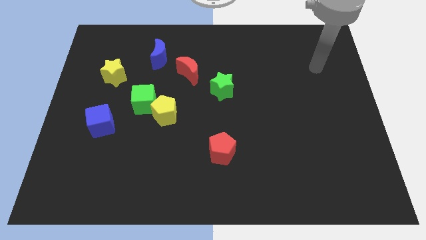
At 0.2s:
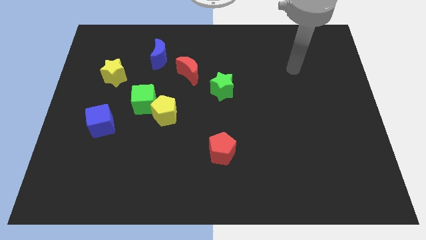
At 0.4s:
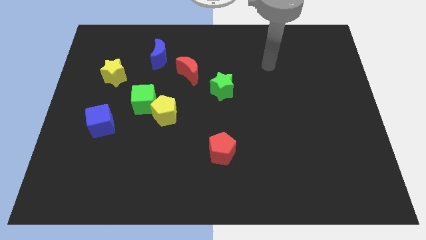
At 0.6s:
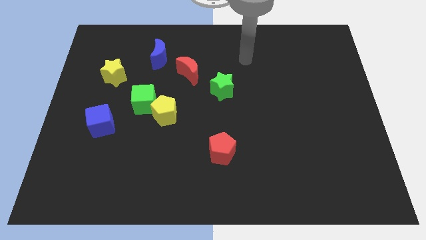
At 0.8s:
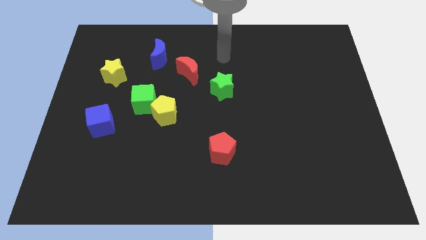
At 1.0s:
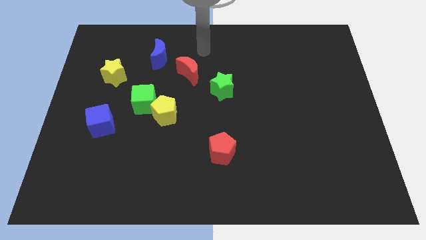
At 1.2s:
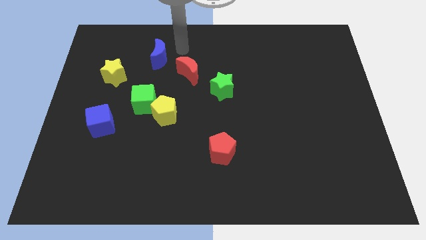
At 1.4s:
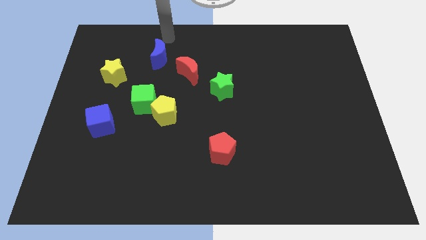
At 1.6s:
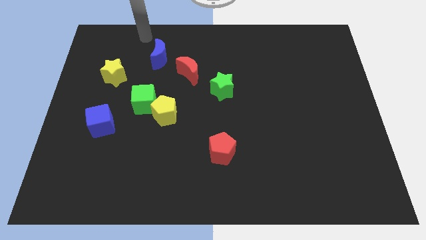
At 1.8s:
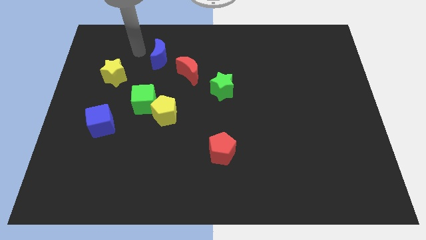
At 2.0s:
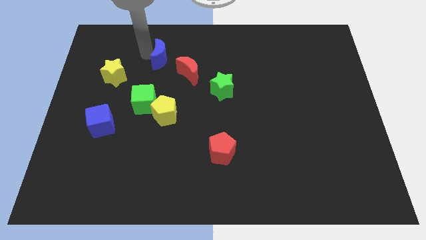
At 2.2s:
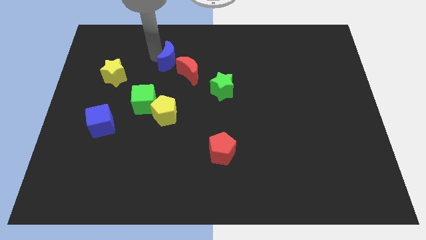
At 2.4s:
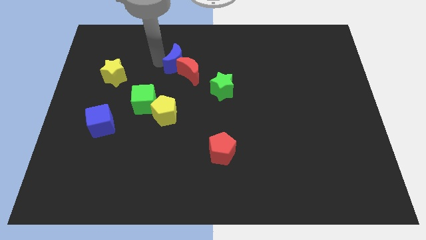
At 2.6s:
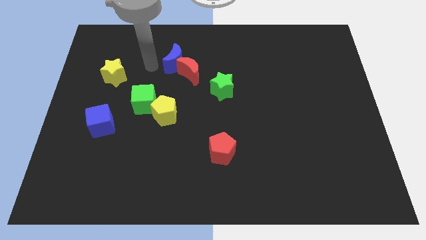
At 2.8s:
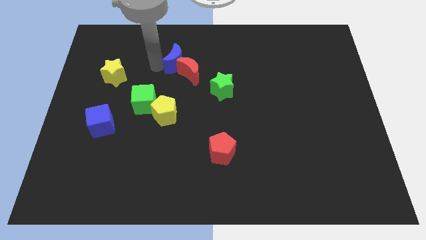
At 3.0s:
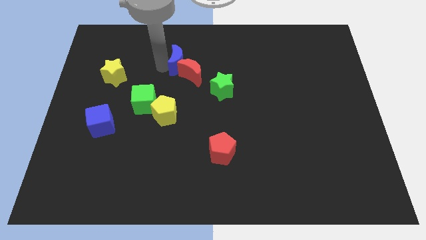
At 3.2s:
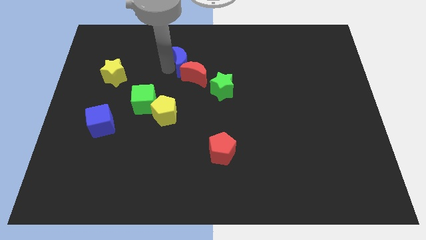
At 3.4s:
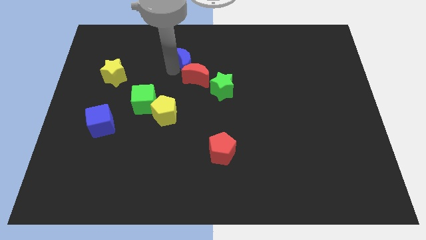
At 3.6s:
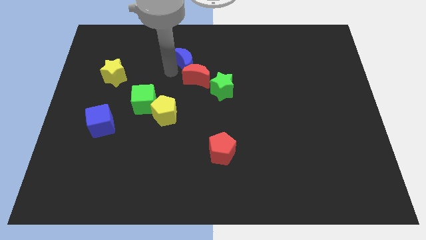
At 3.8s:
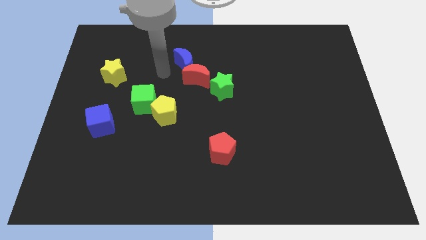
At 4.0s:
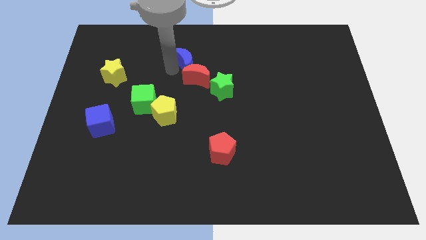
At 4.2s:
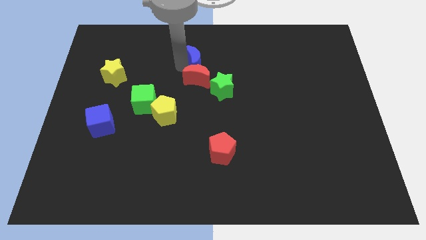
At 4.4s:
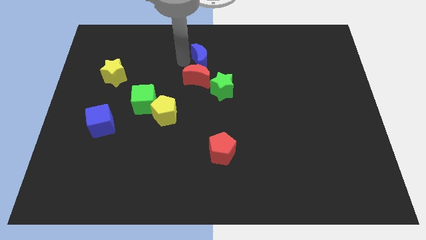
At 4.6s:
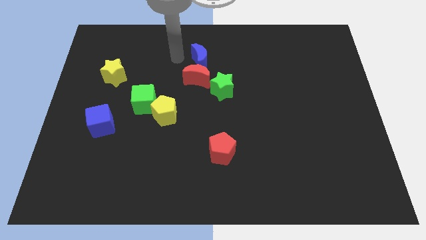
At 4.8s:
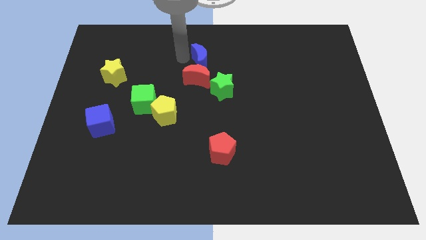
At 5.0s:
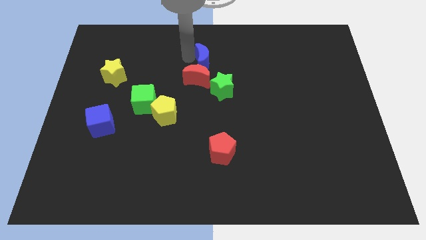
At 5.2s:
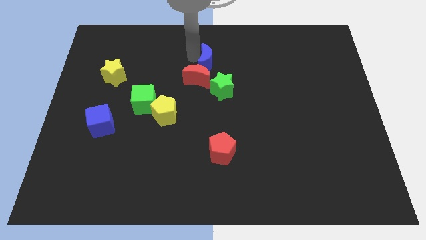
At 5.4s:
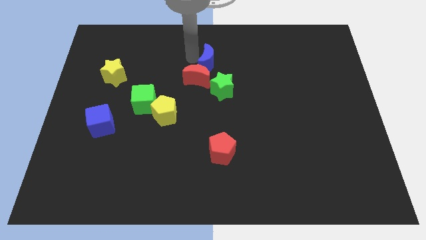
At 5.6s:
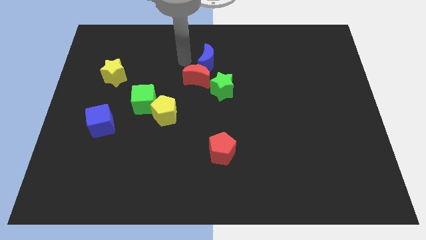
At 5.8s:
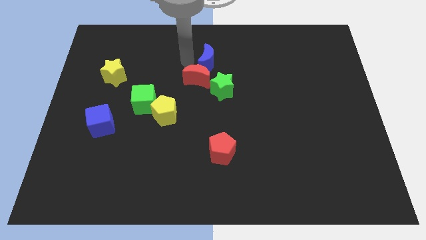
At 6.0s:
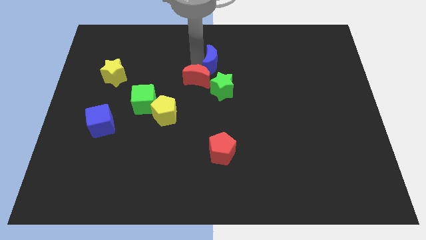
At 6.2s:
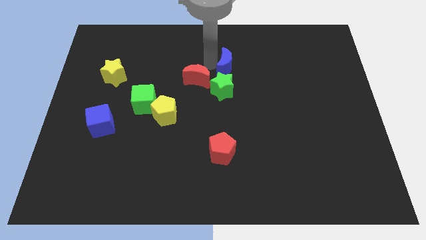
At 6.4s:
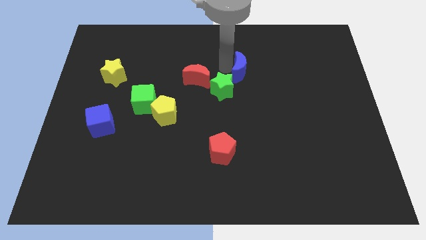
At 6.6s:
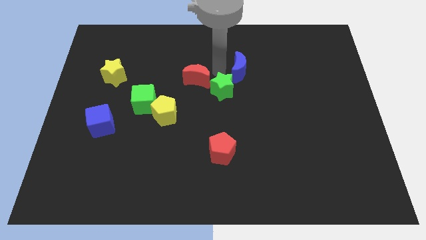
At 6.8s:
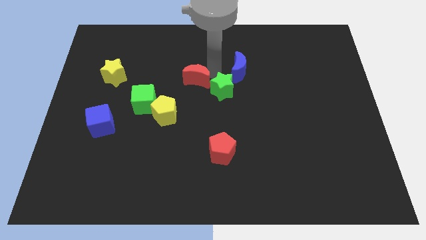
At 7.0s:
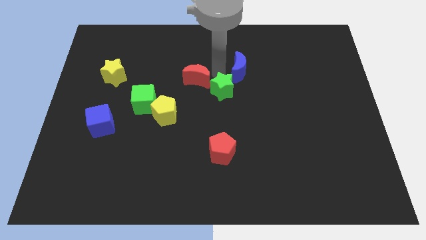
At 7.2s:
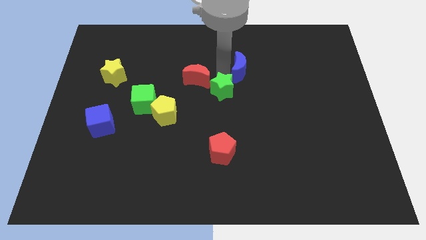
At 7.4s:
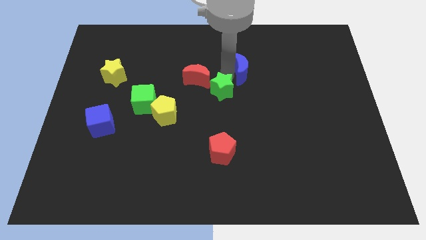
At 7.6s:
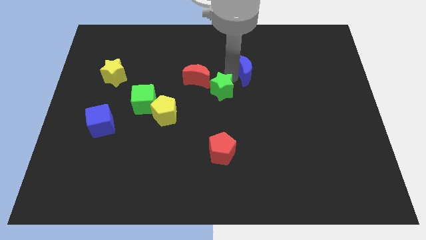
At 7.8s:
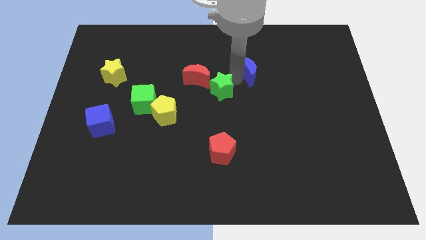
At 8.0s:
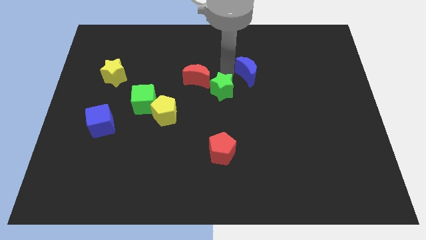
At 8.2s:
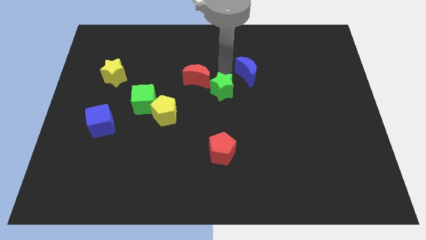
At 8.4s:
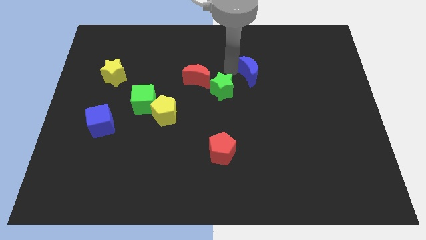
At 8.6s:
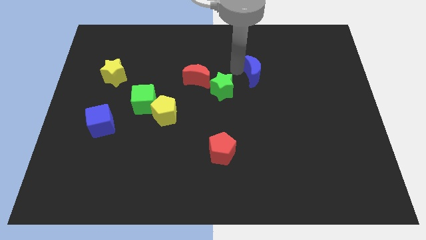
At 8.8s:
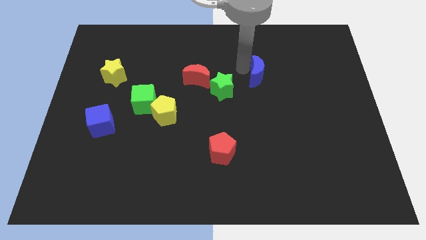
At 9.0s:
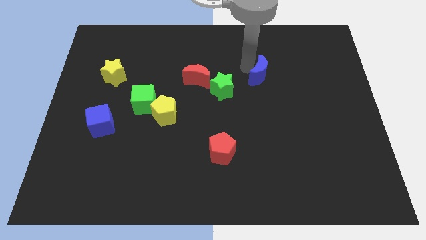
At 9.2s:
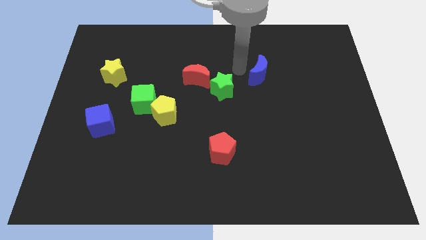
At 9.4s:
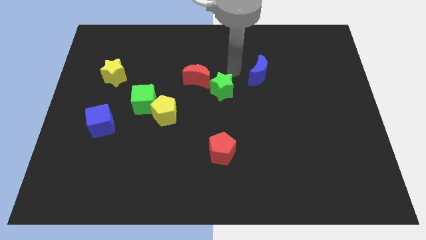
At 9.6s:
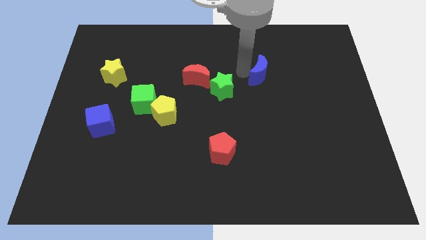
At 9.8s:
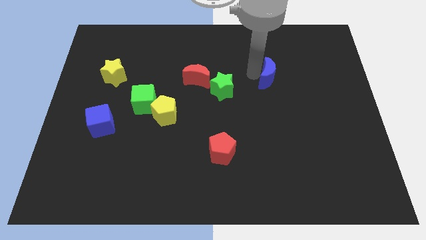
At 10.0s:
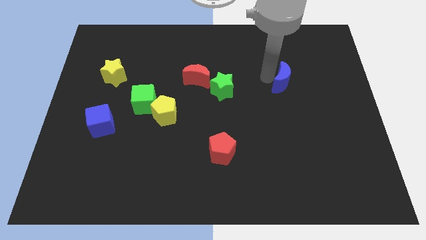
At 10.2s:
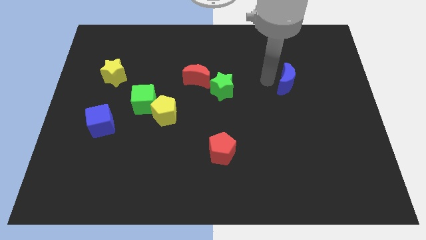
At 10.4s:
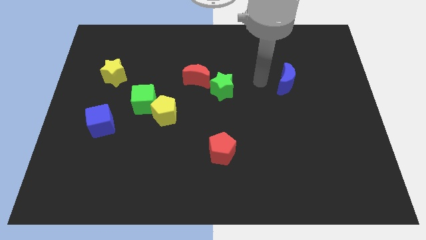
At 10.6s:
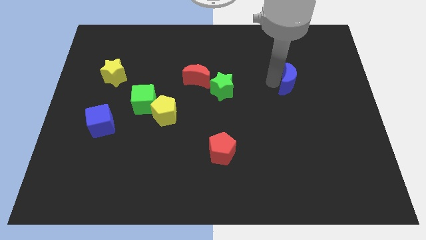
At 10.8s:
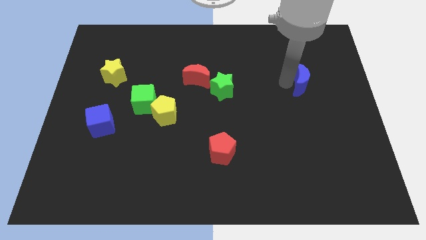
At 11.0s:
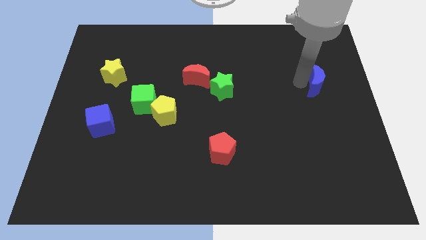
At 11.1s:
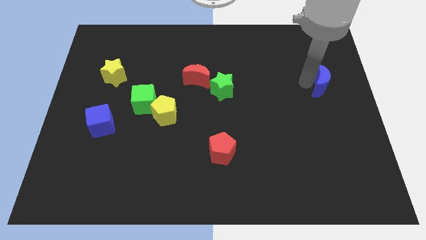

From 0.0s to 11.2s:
put the blue moon to the center right

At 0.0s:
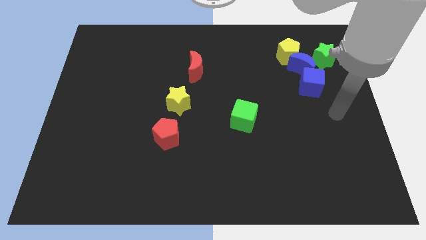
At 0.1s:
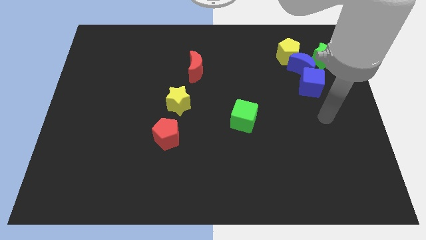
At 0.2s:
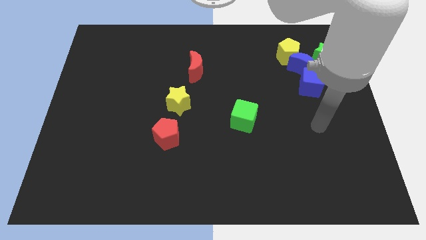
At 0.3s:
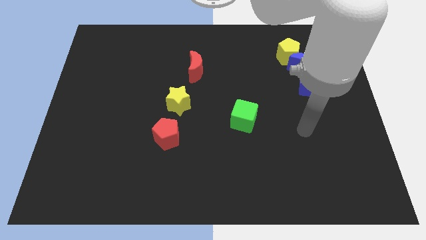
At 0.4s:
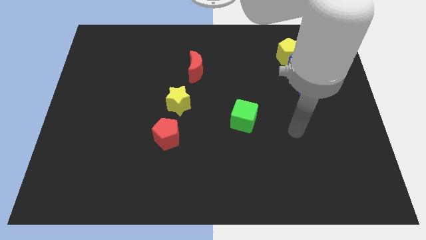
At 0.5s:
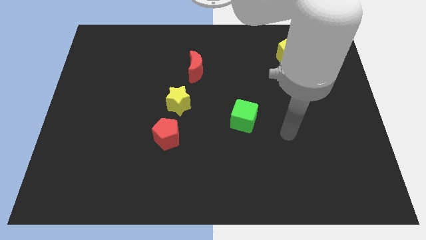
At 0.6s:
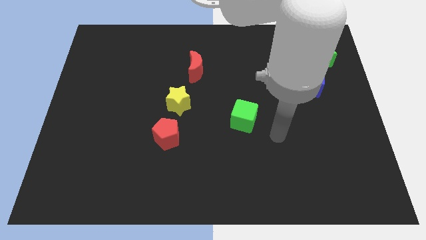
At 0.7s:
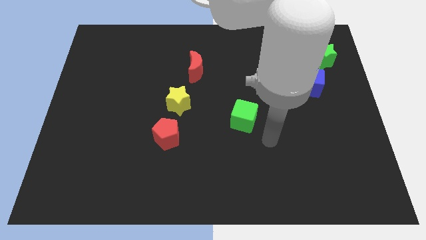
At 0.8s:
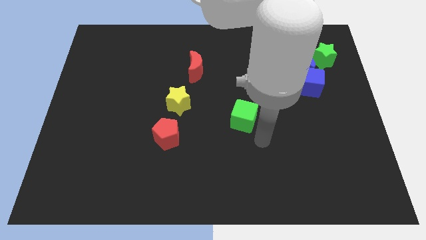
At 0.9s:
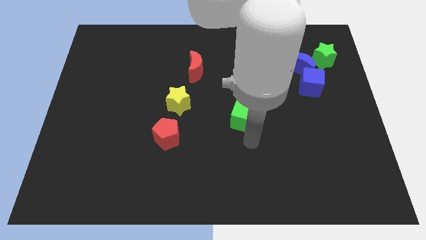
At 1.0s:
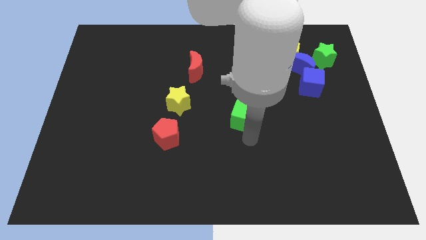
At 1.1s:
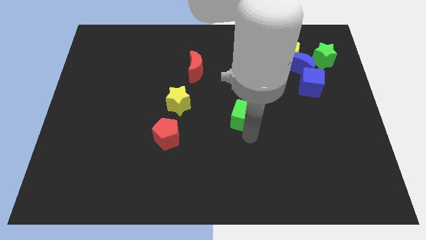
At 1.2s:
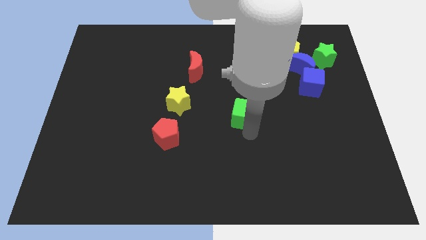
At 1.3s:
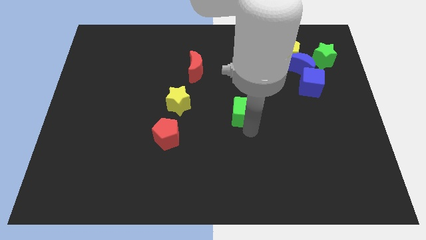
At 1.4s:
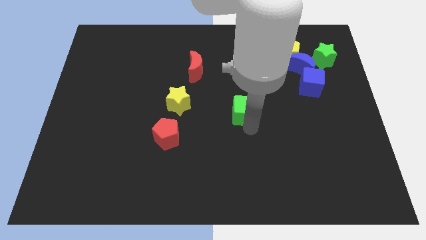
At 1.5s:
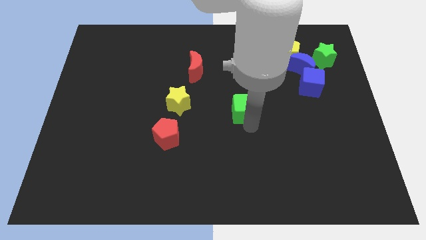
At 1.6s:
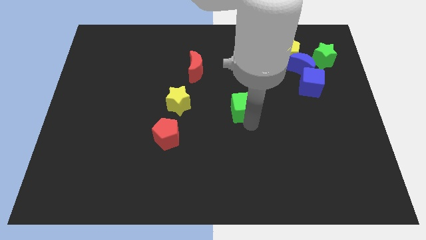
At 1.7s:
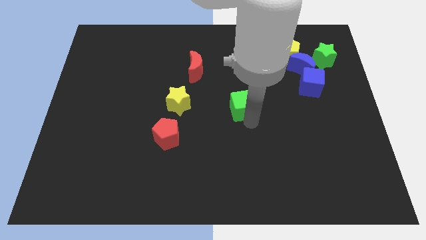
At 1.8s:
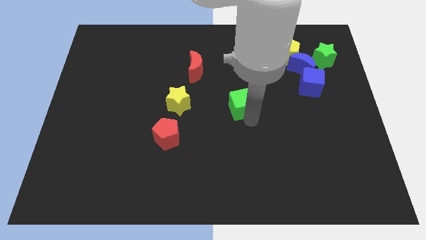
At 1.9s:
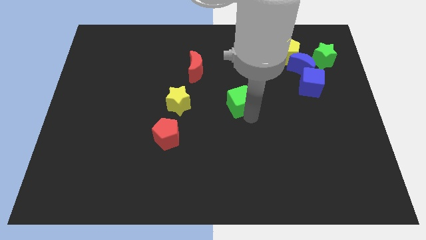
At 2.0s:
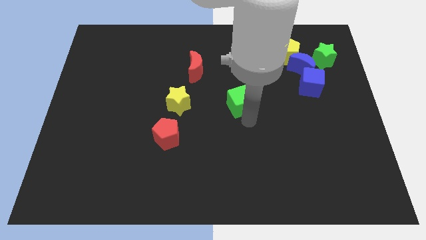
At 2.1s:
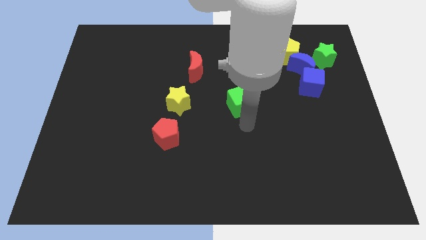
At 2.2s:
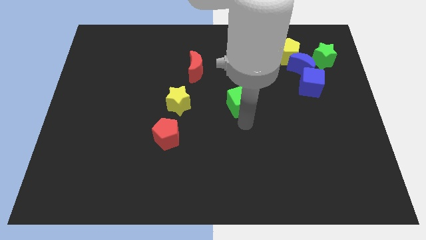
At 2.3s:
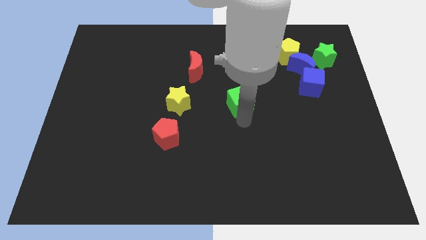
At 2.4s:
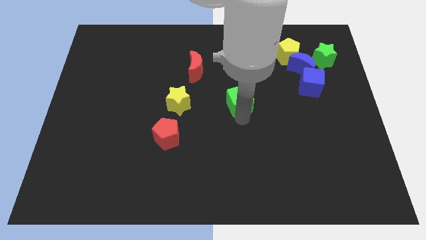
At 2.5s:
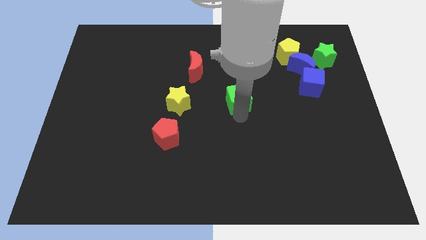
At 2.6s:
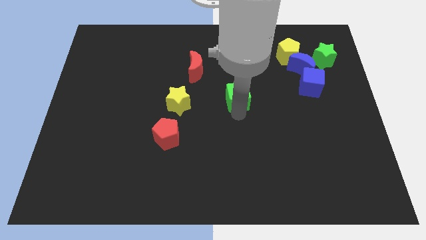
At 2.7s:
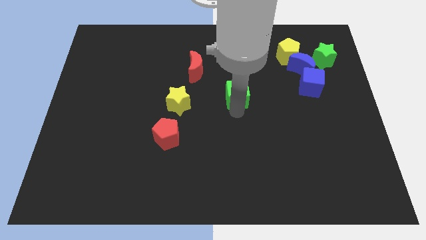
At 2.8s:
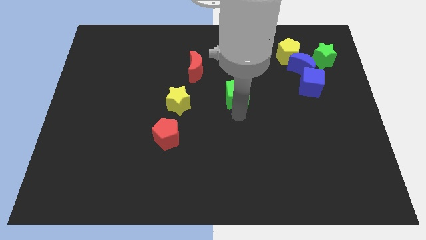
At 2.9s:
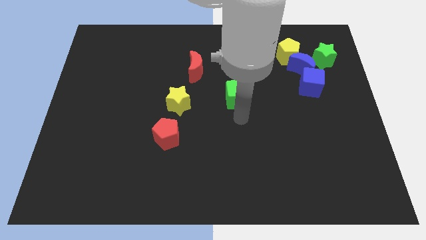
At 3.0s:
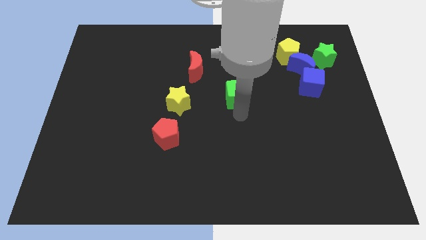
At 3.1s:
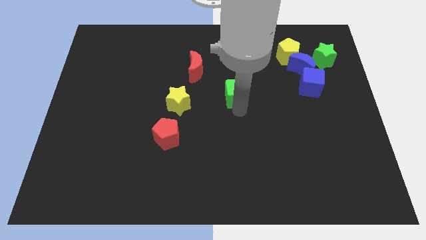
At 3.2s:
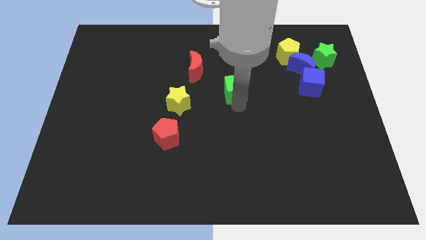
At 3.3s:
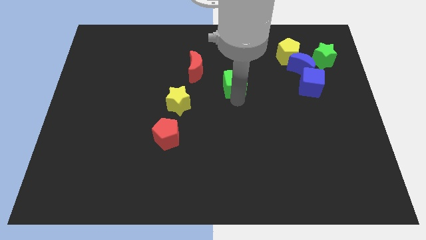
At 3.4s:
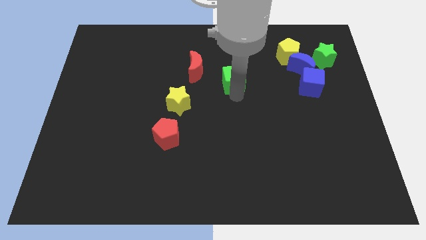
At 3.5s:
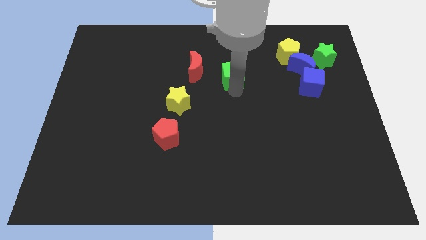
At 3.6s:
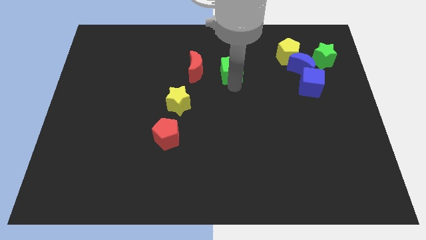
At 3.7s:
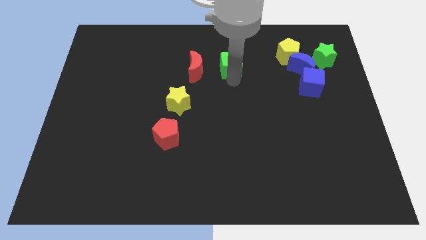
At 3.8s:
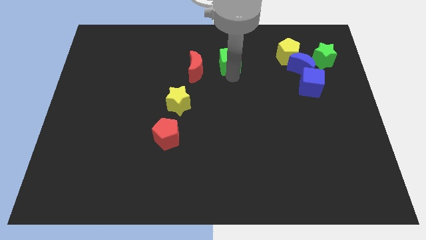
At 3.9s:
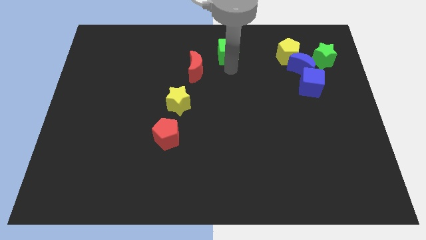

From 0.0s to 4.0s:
push the green cube to the top side
